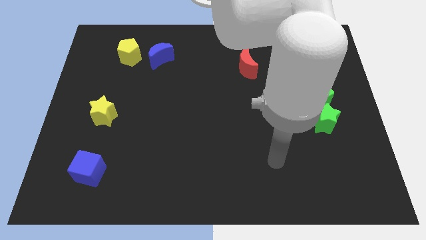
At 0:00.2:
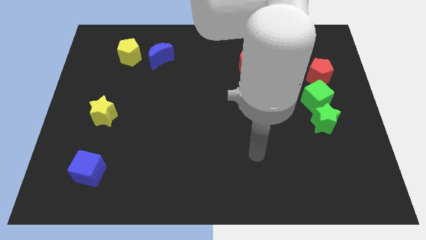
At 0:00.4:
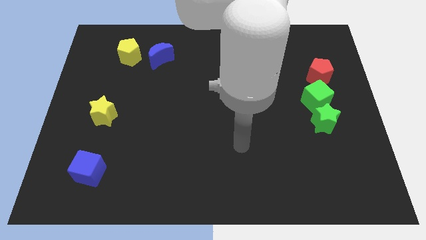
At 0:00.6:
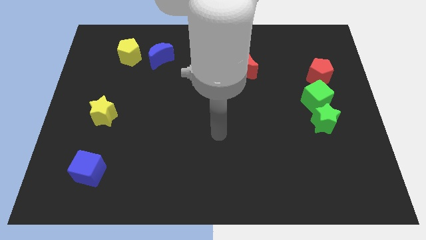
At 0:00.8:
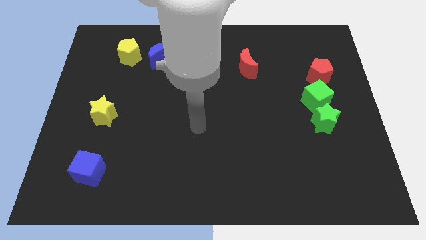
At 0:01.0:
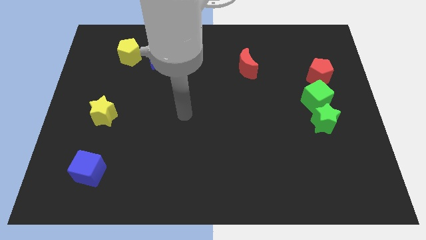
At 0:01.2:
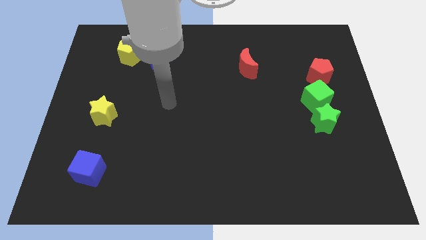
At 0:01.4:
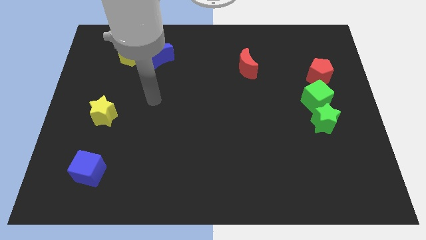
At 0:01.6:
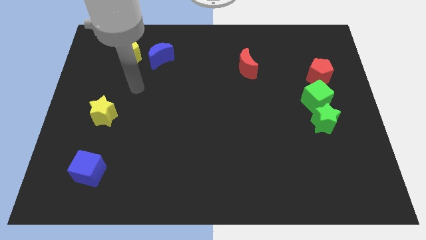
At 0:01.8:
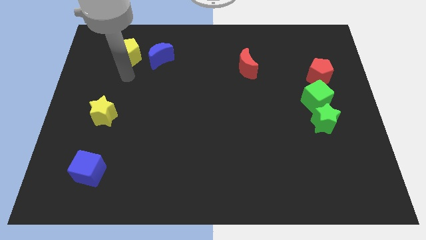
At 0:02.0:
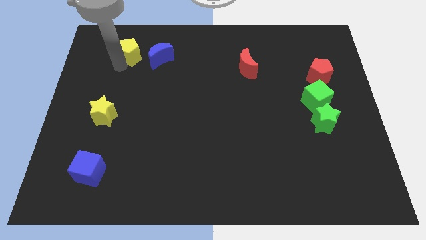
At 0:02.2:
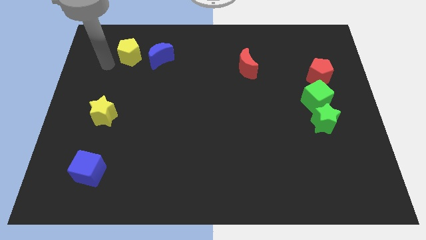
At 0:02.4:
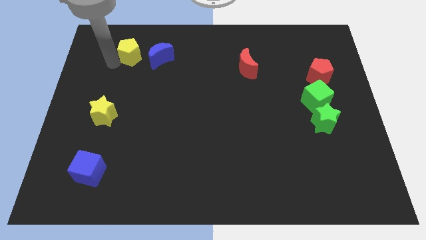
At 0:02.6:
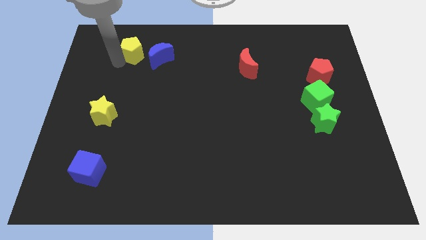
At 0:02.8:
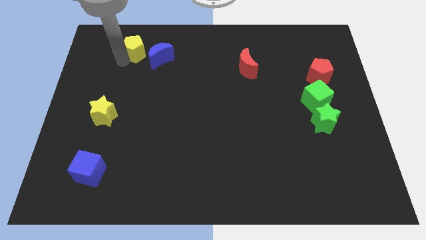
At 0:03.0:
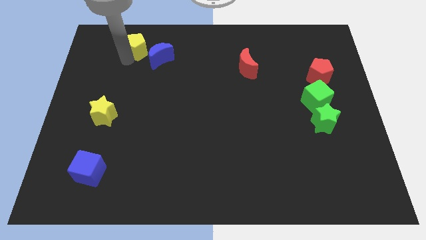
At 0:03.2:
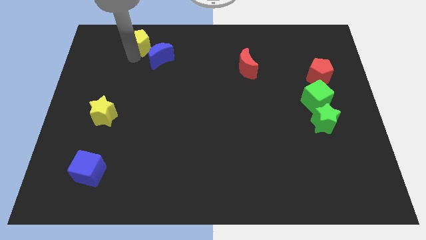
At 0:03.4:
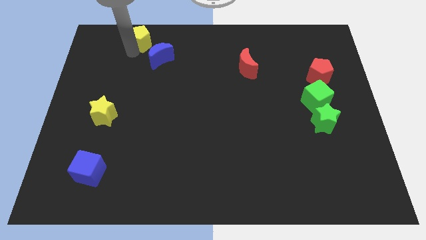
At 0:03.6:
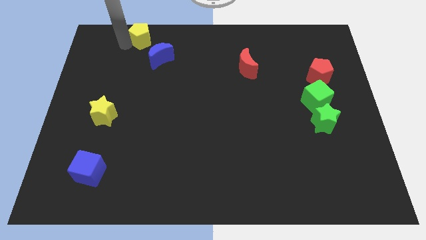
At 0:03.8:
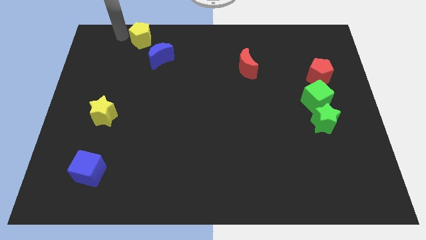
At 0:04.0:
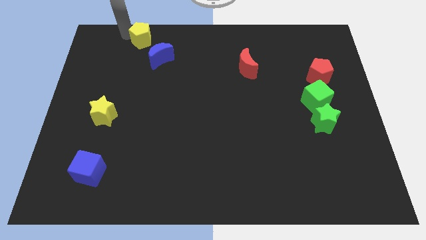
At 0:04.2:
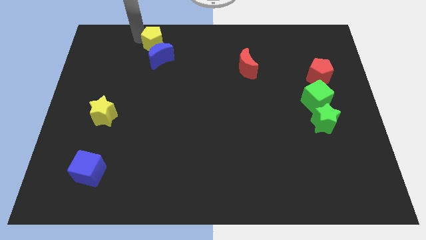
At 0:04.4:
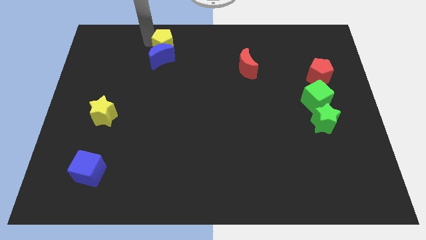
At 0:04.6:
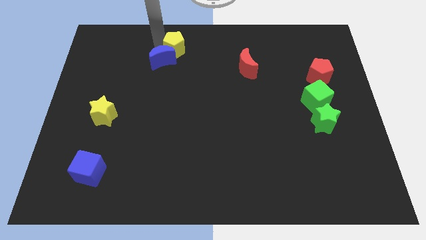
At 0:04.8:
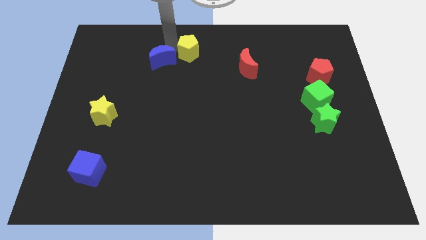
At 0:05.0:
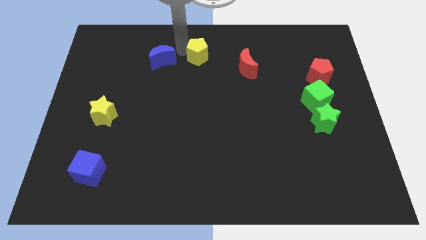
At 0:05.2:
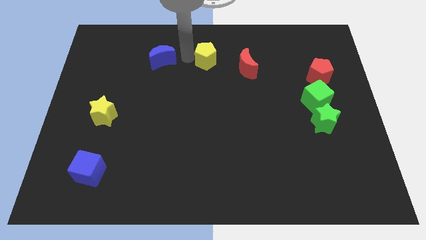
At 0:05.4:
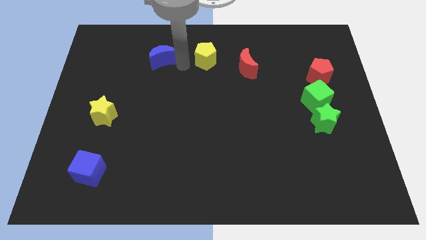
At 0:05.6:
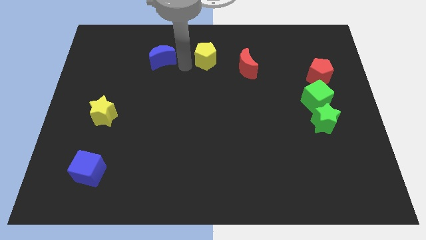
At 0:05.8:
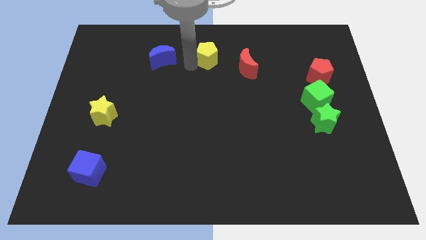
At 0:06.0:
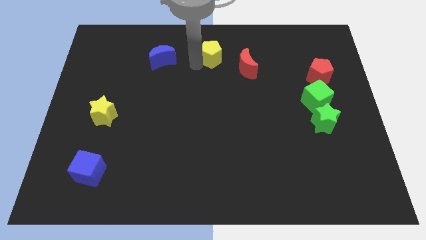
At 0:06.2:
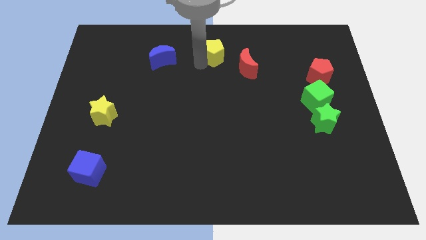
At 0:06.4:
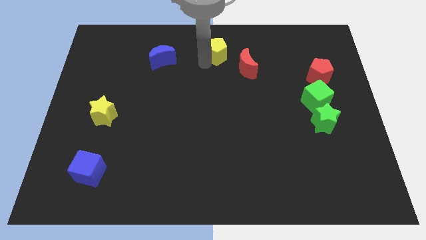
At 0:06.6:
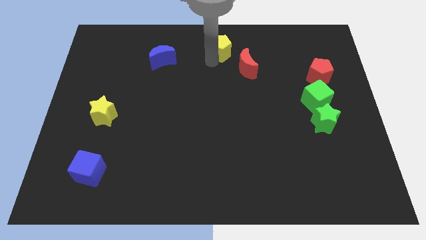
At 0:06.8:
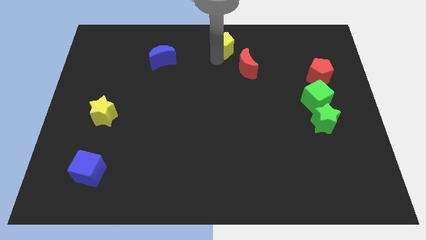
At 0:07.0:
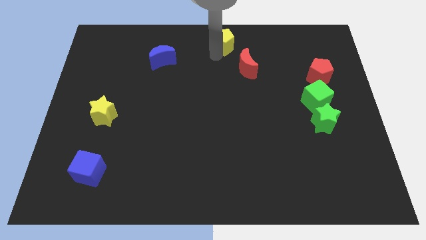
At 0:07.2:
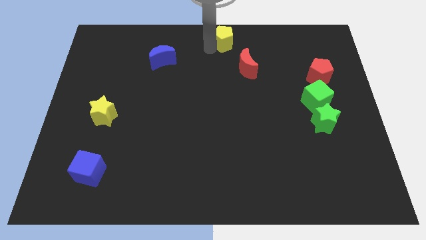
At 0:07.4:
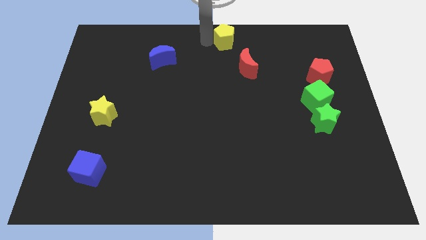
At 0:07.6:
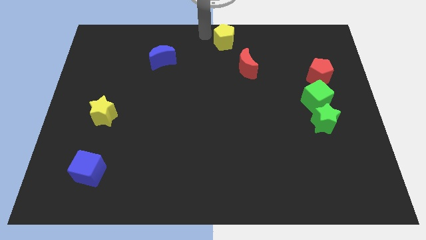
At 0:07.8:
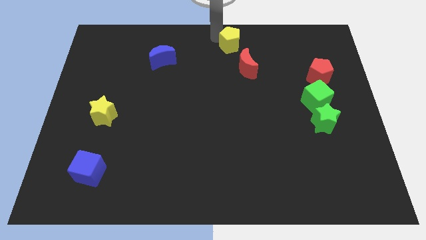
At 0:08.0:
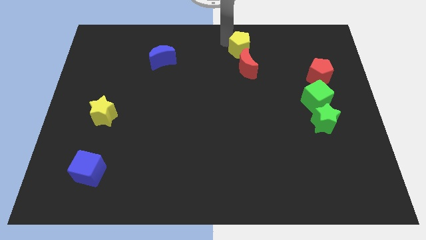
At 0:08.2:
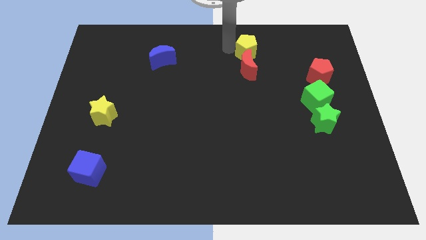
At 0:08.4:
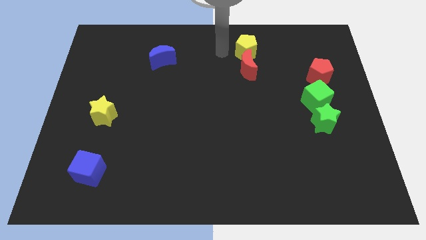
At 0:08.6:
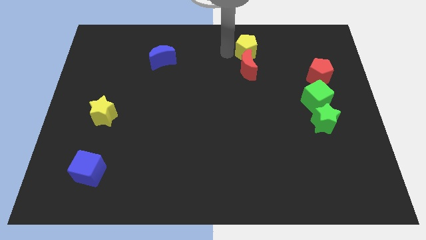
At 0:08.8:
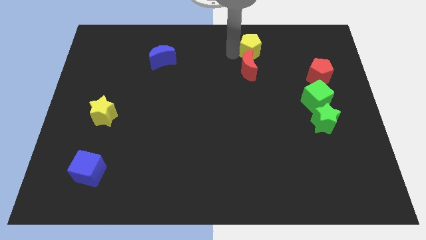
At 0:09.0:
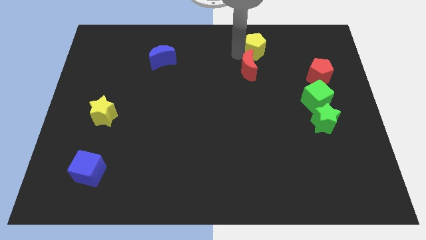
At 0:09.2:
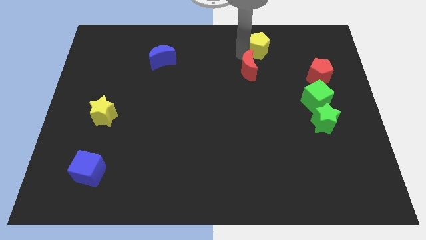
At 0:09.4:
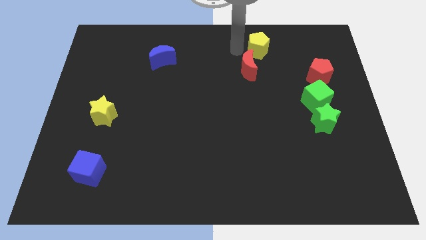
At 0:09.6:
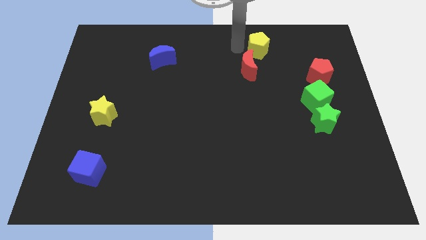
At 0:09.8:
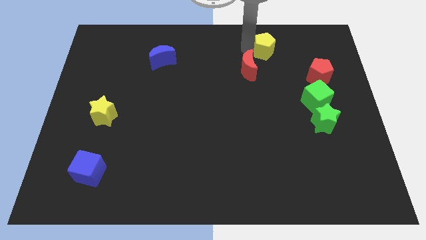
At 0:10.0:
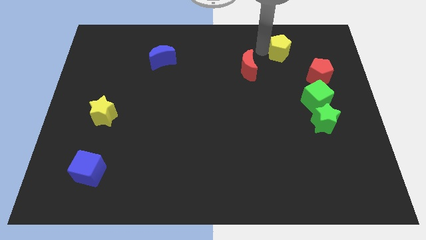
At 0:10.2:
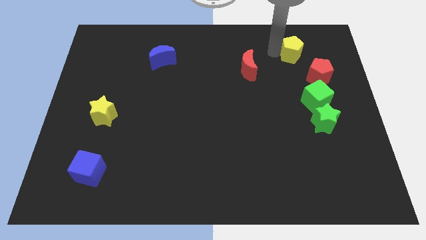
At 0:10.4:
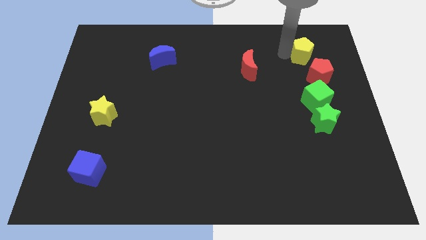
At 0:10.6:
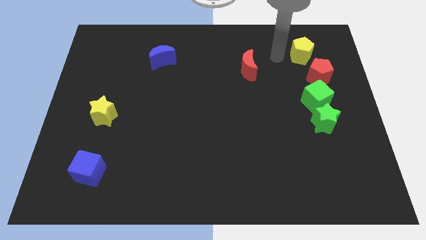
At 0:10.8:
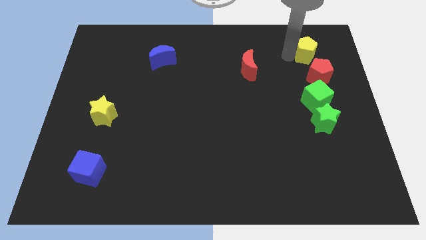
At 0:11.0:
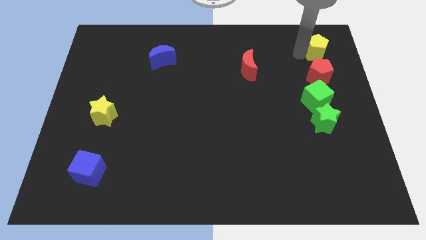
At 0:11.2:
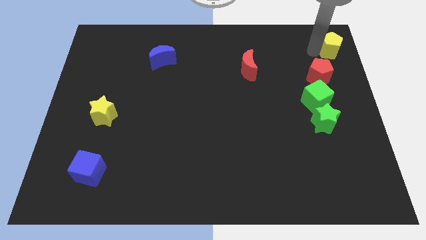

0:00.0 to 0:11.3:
put the yellow pentagon to the upper right corner

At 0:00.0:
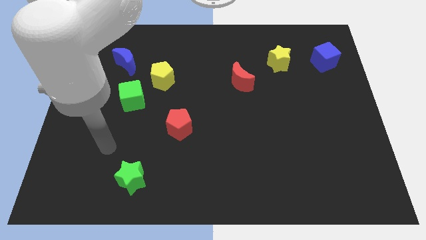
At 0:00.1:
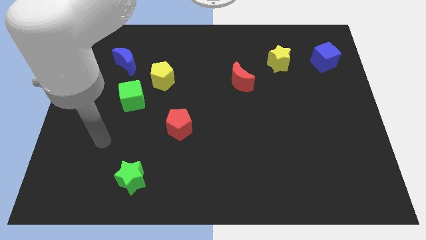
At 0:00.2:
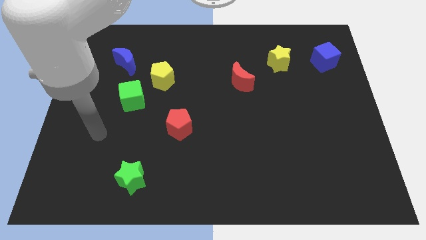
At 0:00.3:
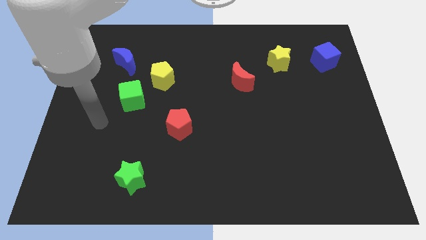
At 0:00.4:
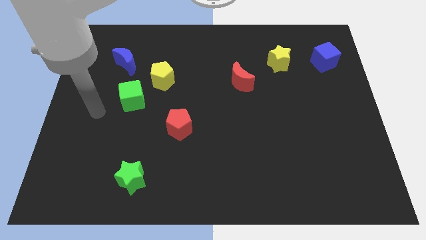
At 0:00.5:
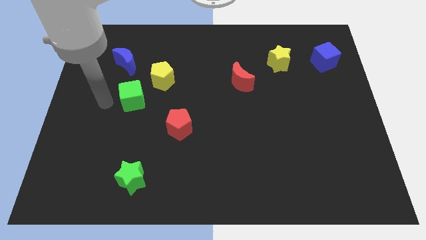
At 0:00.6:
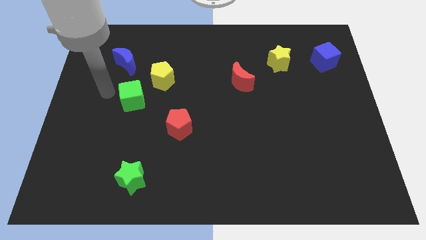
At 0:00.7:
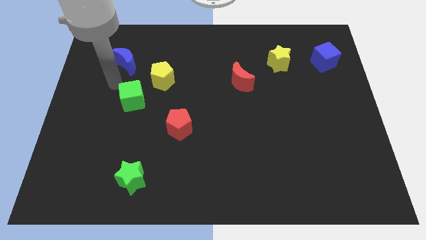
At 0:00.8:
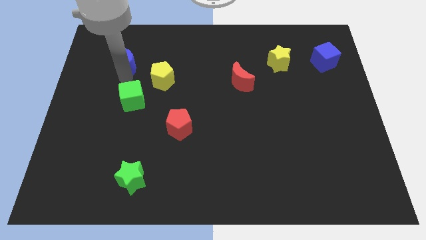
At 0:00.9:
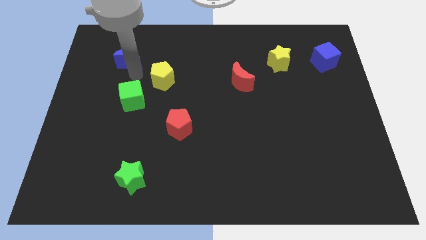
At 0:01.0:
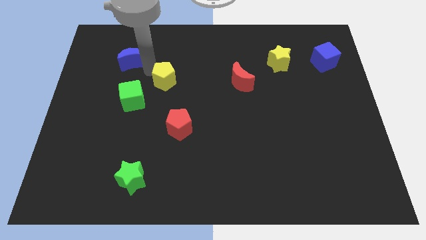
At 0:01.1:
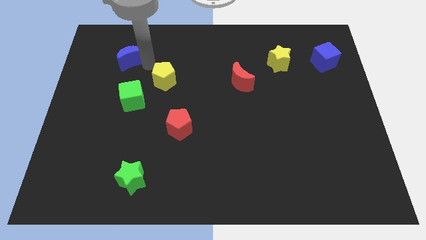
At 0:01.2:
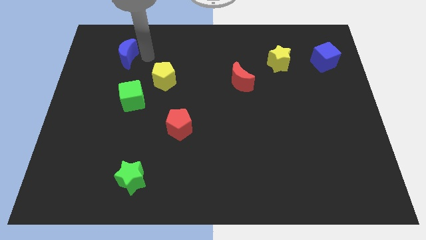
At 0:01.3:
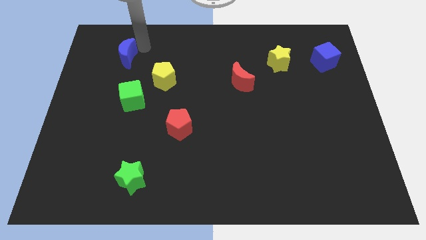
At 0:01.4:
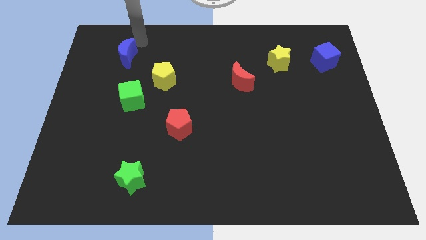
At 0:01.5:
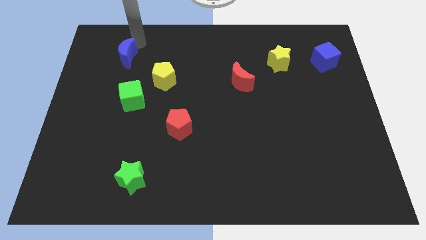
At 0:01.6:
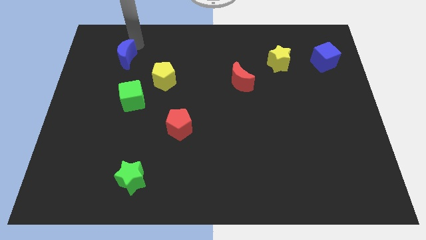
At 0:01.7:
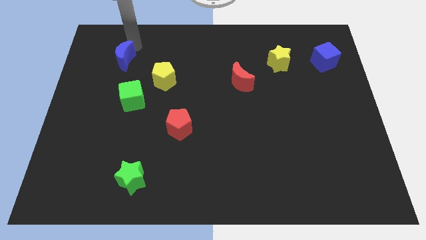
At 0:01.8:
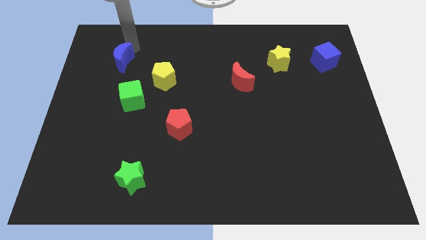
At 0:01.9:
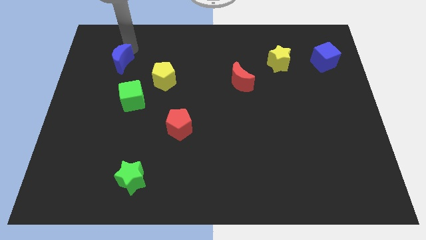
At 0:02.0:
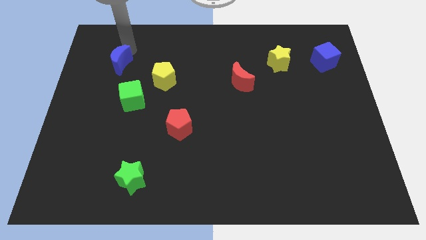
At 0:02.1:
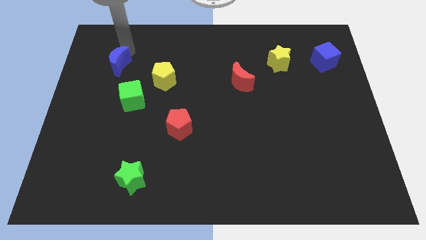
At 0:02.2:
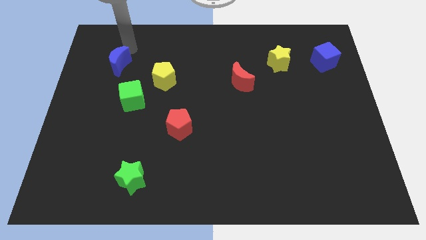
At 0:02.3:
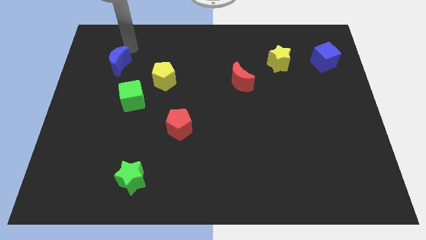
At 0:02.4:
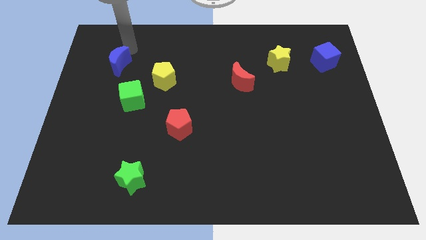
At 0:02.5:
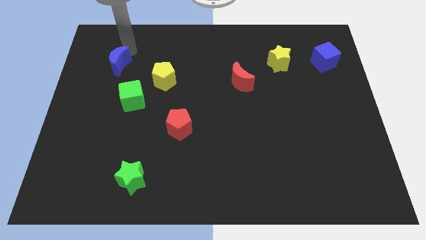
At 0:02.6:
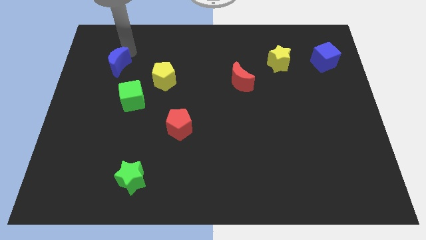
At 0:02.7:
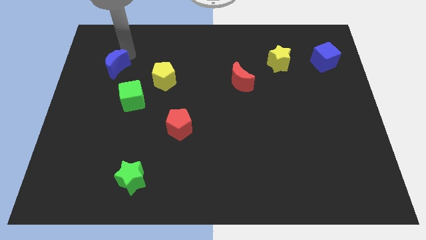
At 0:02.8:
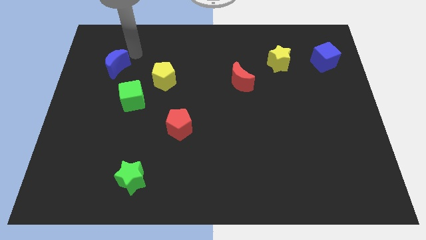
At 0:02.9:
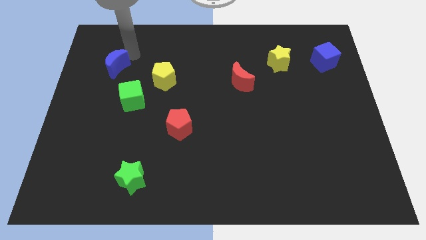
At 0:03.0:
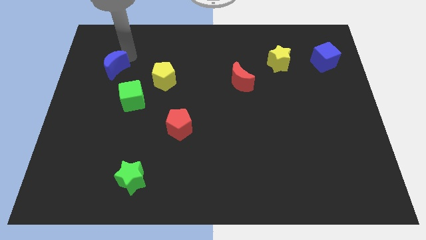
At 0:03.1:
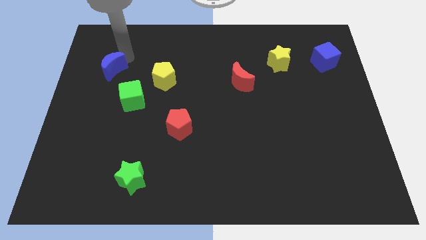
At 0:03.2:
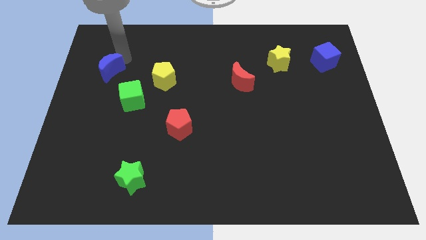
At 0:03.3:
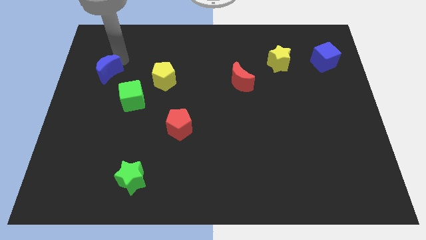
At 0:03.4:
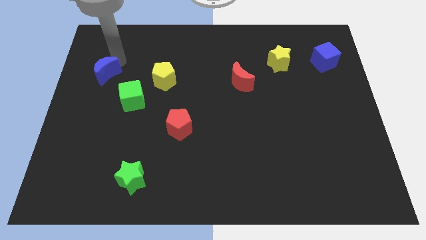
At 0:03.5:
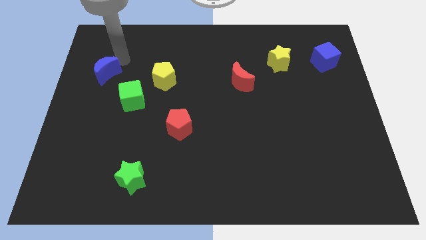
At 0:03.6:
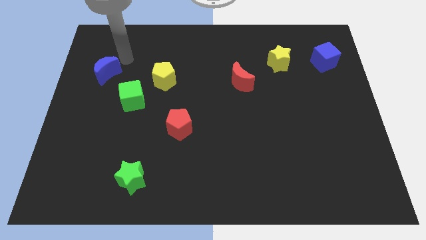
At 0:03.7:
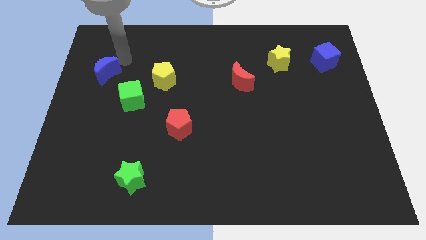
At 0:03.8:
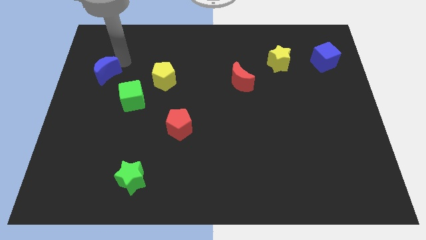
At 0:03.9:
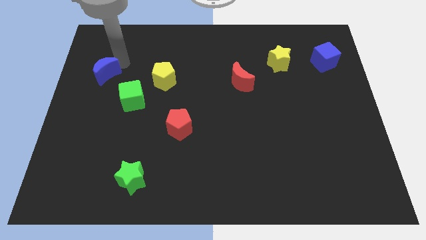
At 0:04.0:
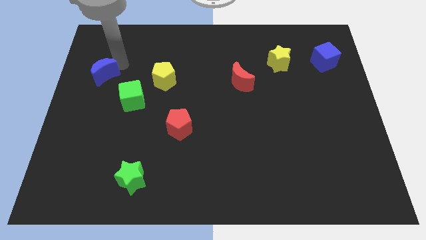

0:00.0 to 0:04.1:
move the blue moon to the left side
